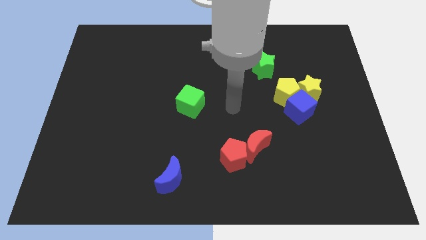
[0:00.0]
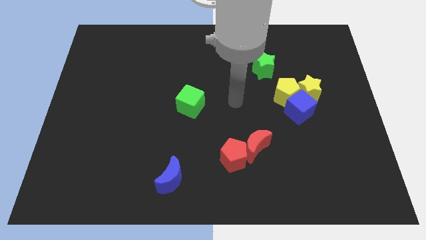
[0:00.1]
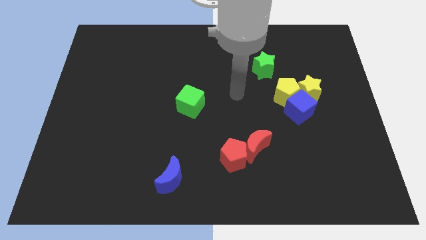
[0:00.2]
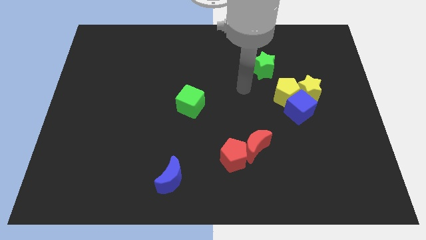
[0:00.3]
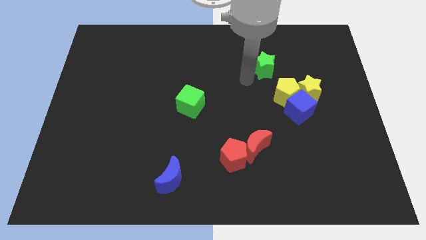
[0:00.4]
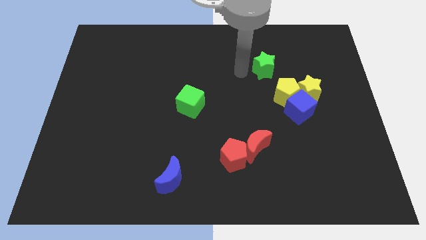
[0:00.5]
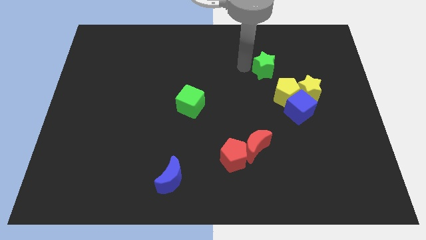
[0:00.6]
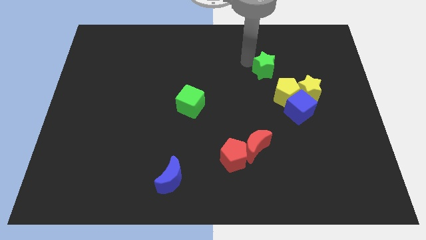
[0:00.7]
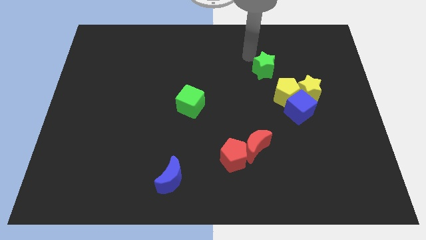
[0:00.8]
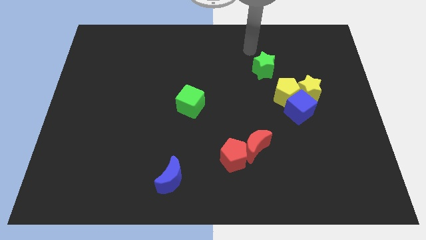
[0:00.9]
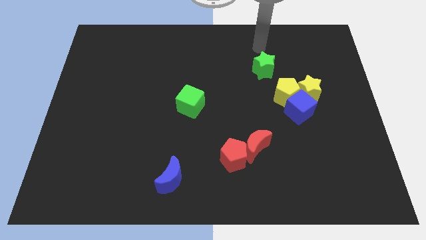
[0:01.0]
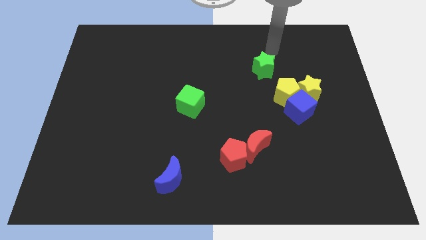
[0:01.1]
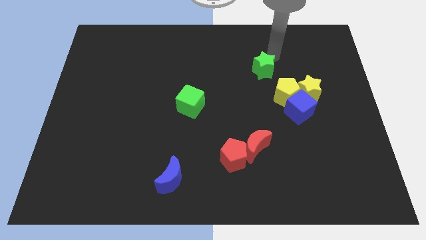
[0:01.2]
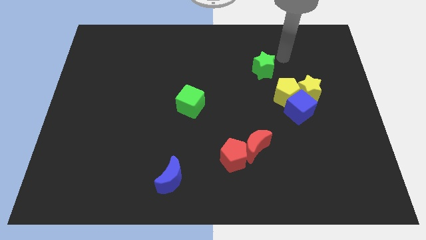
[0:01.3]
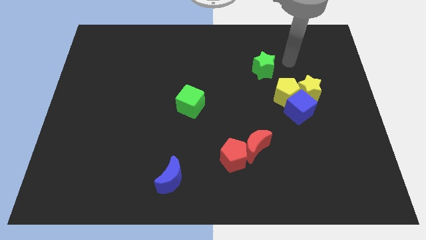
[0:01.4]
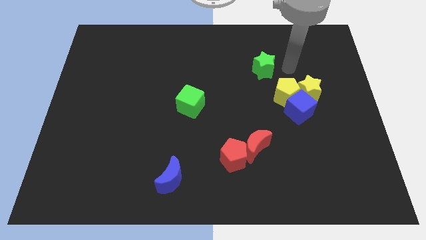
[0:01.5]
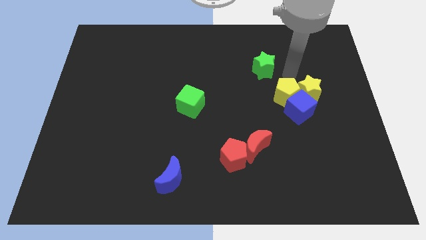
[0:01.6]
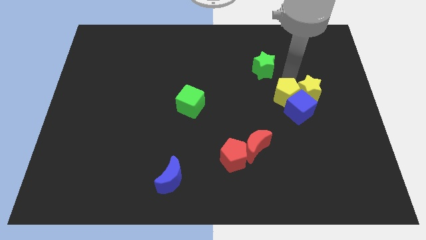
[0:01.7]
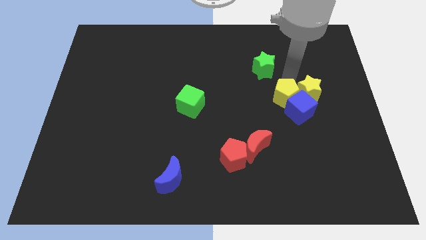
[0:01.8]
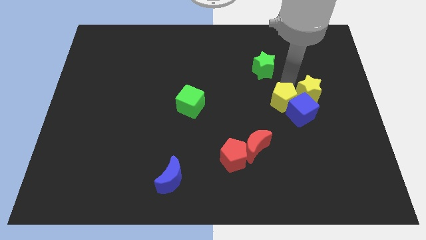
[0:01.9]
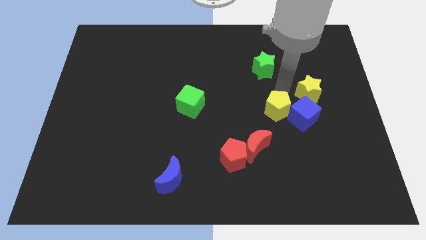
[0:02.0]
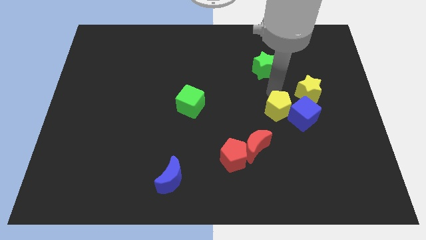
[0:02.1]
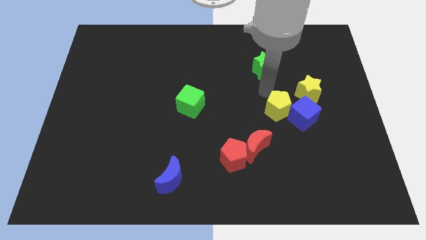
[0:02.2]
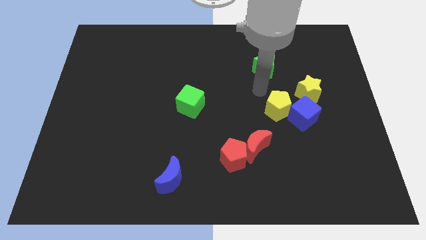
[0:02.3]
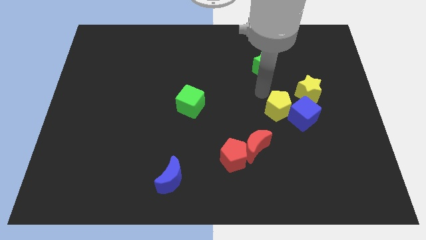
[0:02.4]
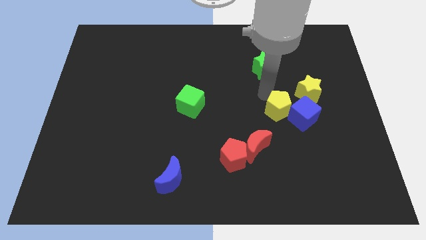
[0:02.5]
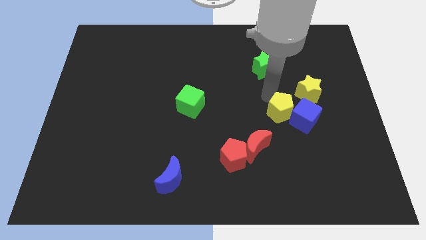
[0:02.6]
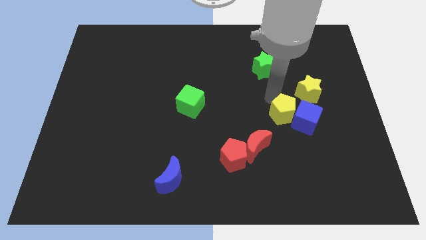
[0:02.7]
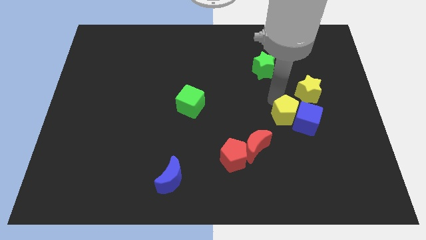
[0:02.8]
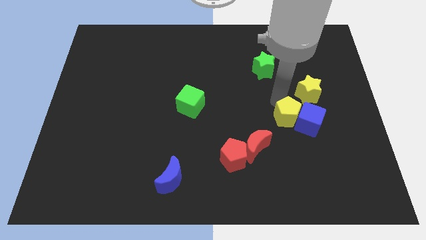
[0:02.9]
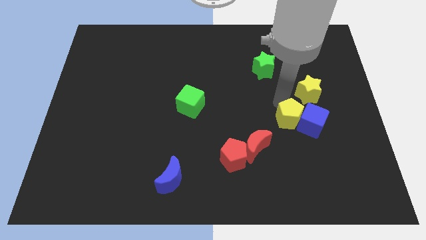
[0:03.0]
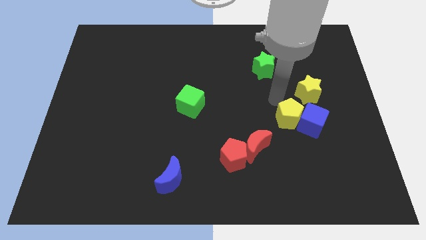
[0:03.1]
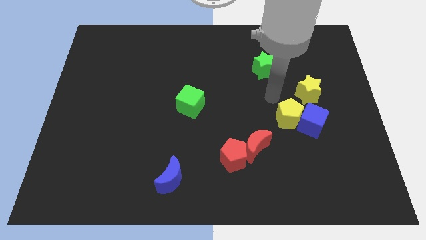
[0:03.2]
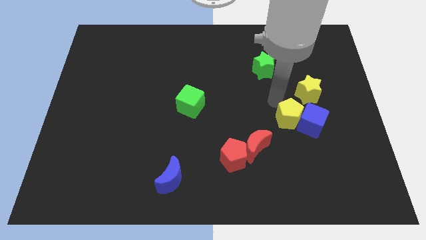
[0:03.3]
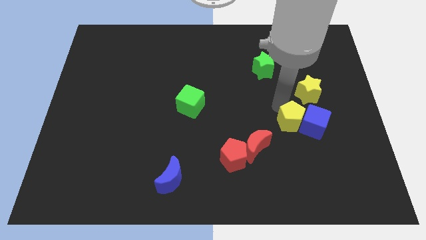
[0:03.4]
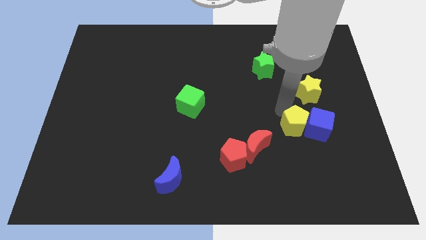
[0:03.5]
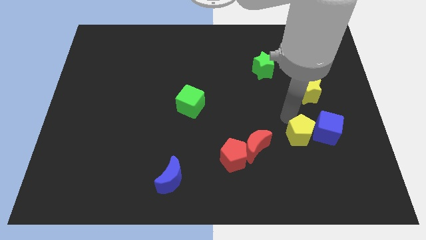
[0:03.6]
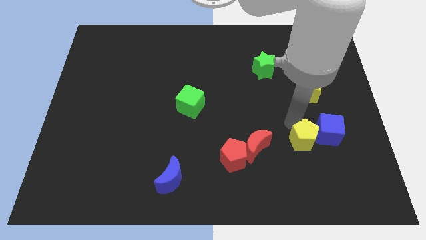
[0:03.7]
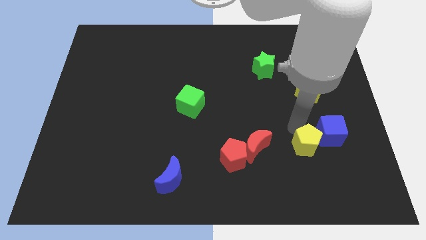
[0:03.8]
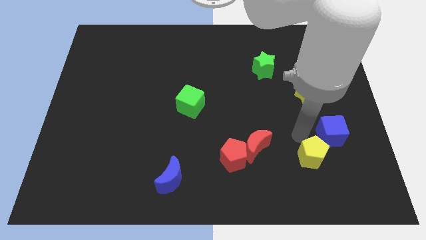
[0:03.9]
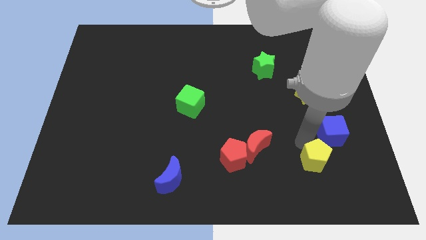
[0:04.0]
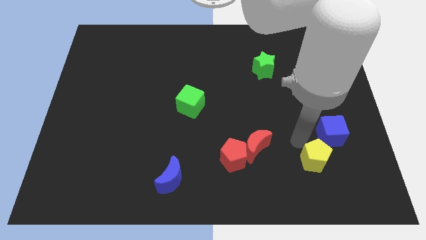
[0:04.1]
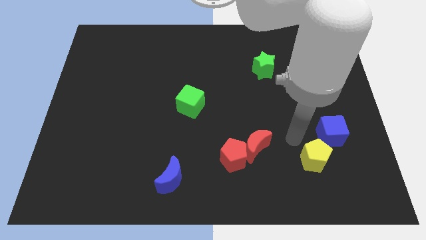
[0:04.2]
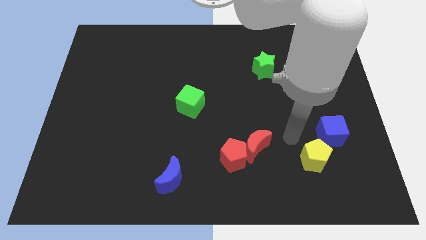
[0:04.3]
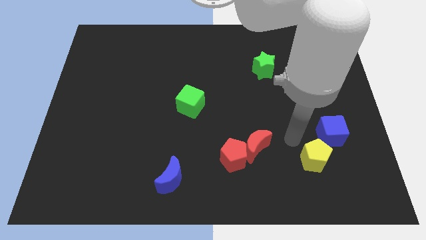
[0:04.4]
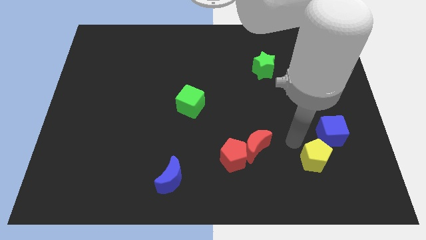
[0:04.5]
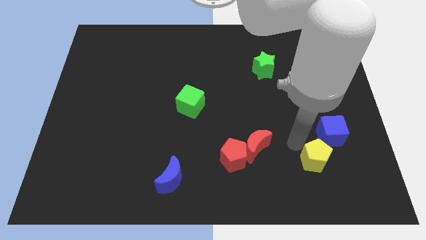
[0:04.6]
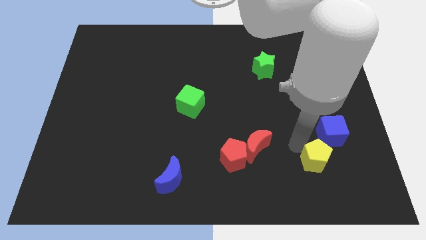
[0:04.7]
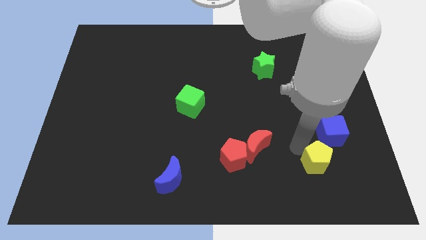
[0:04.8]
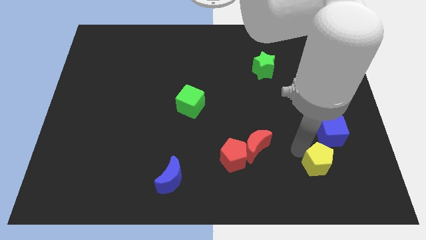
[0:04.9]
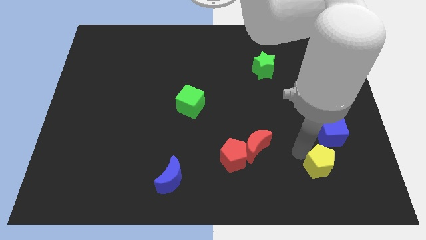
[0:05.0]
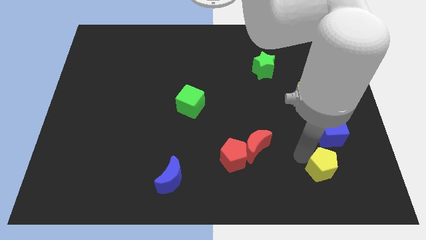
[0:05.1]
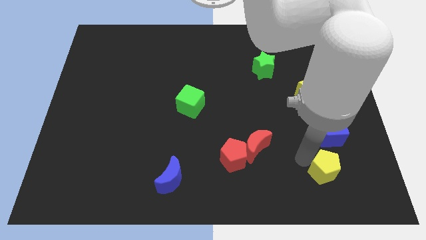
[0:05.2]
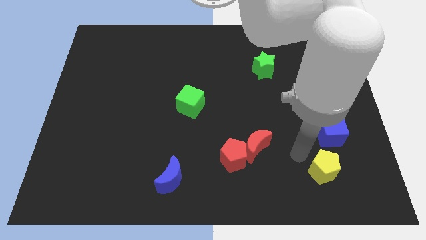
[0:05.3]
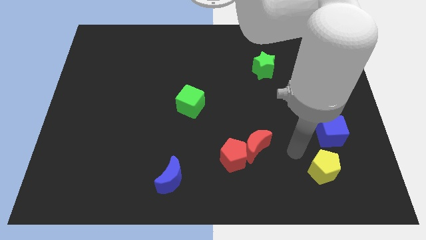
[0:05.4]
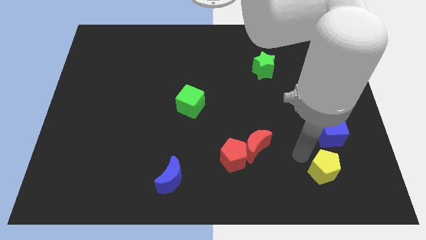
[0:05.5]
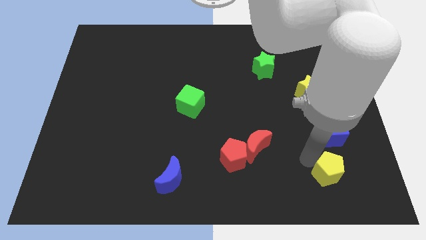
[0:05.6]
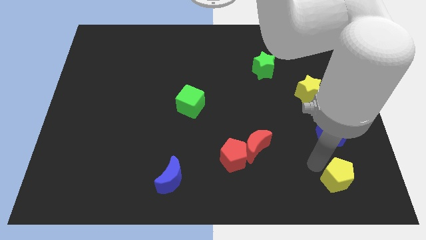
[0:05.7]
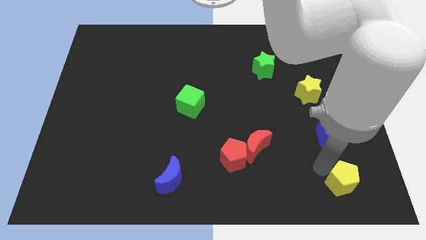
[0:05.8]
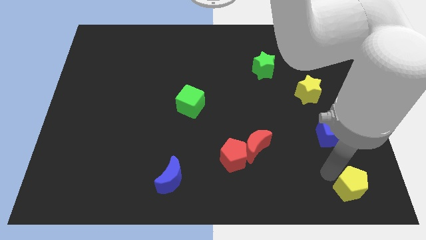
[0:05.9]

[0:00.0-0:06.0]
move the yellow pentagon to the lower right corner
